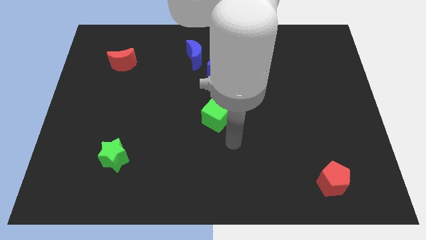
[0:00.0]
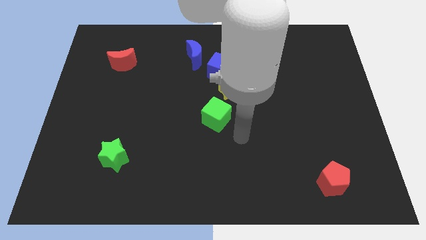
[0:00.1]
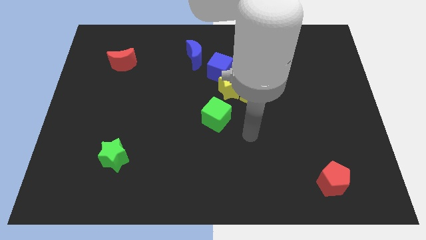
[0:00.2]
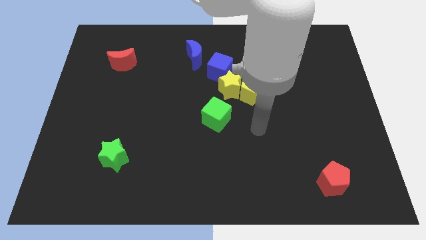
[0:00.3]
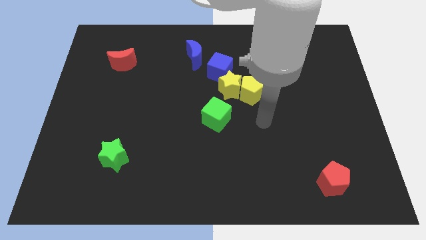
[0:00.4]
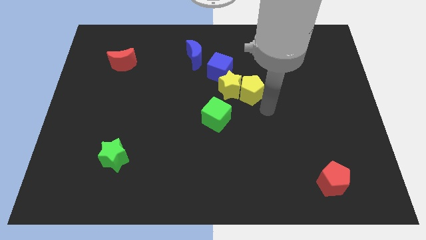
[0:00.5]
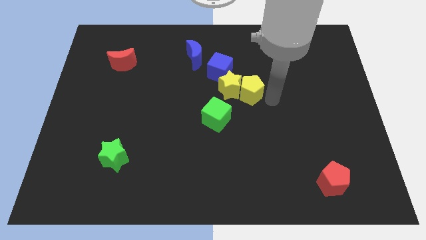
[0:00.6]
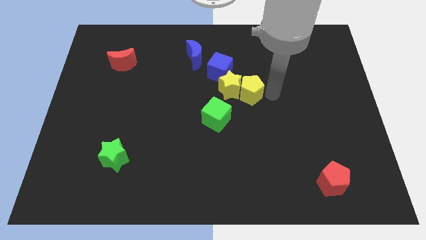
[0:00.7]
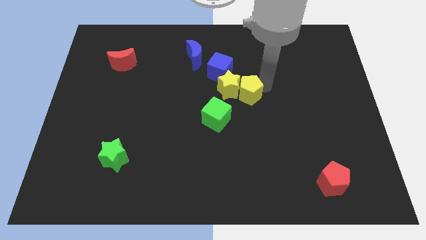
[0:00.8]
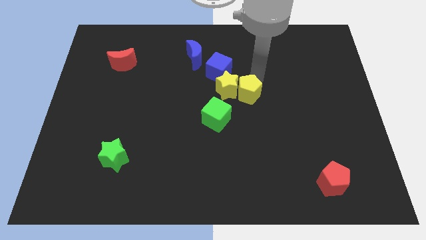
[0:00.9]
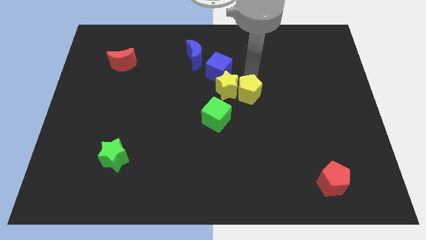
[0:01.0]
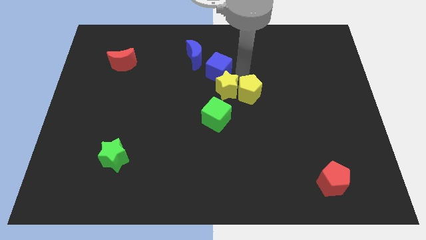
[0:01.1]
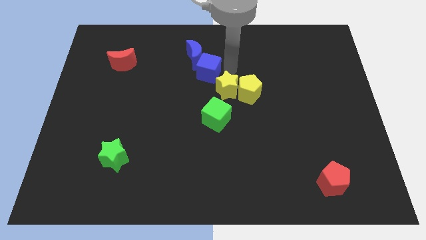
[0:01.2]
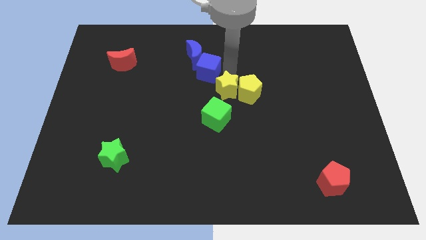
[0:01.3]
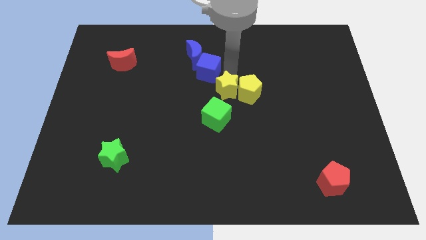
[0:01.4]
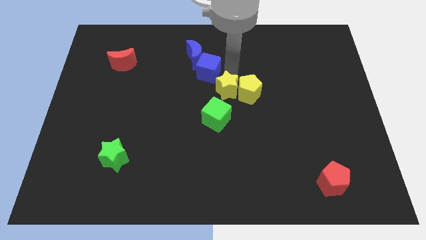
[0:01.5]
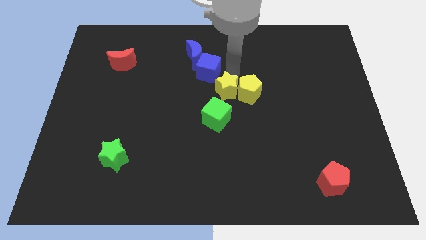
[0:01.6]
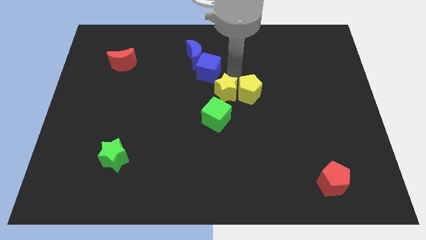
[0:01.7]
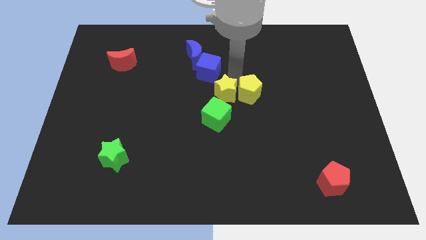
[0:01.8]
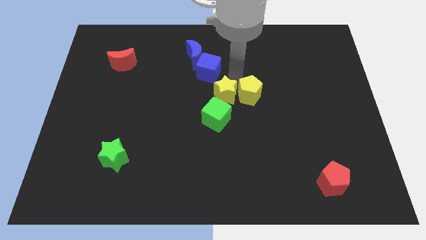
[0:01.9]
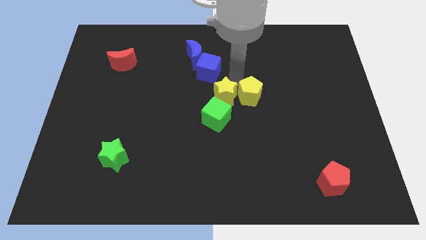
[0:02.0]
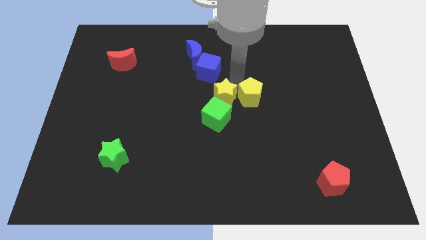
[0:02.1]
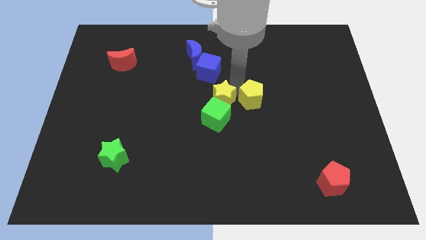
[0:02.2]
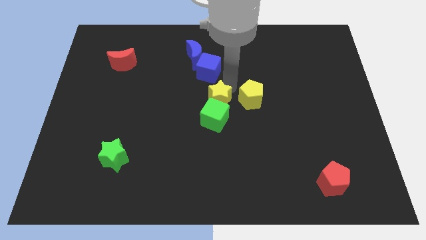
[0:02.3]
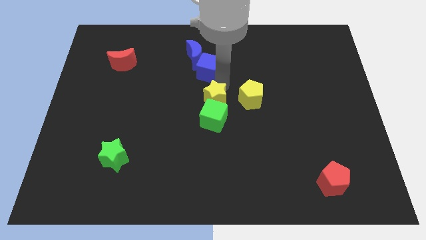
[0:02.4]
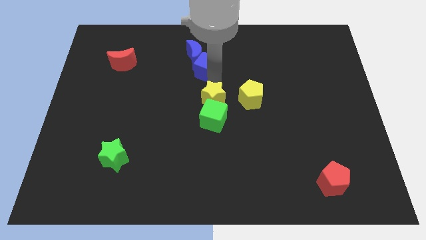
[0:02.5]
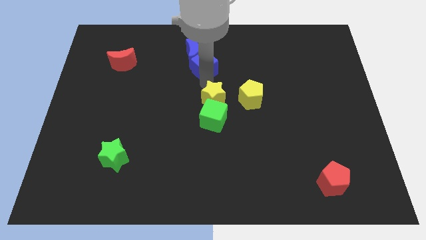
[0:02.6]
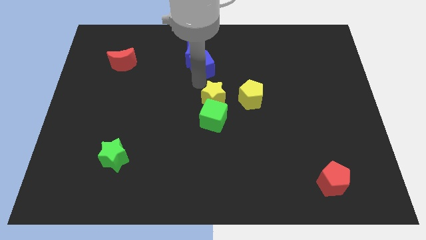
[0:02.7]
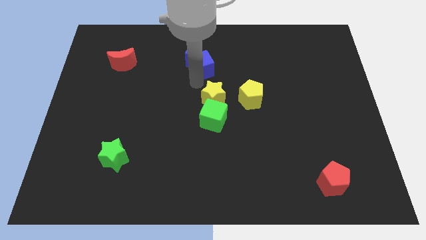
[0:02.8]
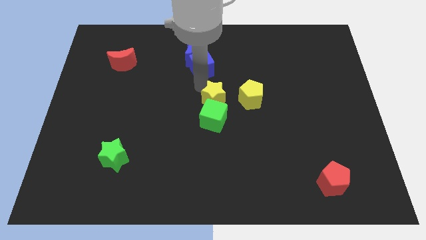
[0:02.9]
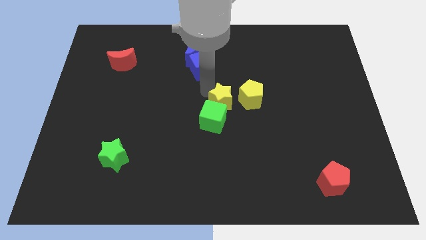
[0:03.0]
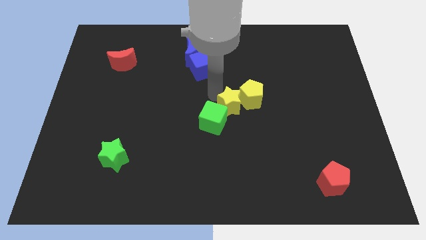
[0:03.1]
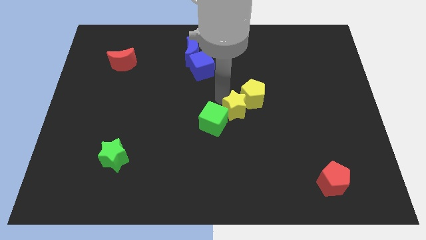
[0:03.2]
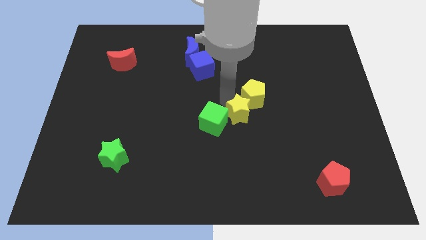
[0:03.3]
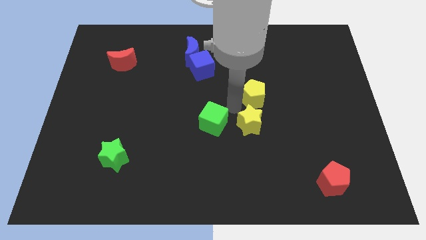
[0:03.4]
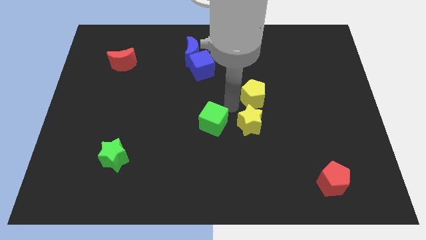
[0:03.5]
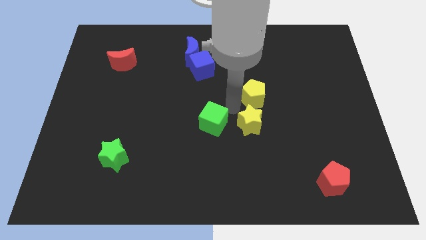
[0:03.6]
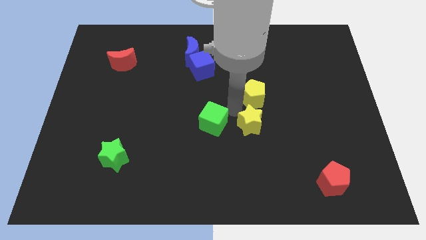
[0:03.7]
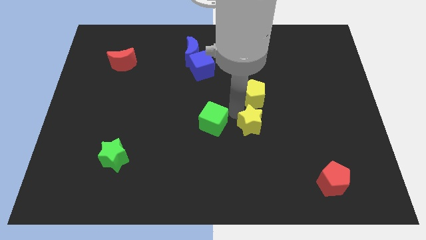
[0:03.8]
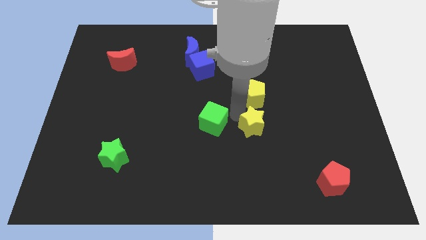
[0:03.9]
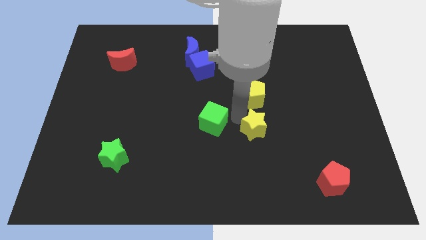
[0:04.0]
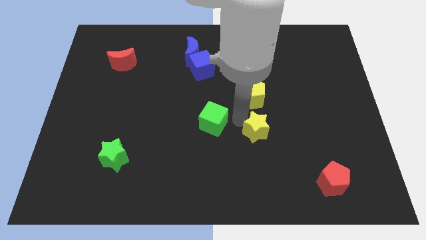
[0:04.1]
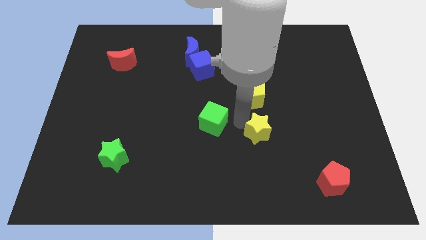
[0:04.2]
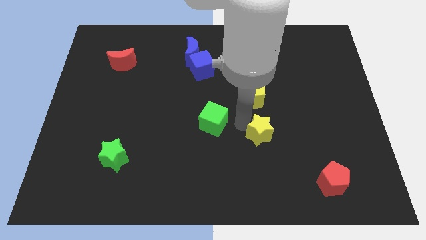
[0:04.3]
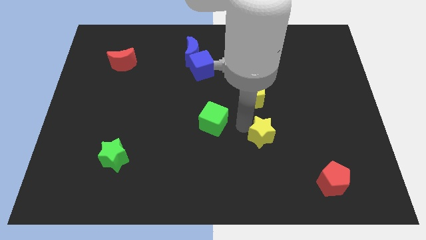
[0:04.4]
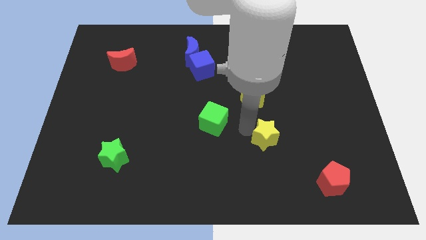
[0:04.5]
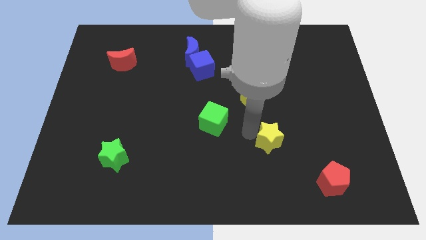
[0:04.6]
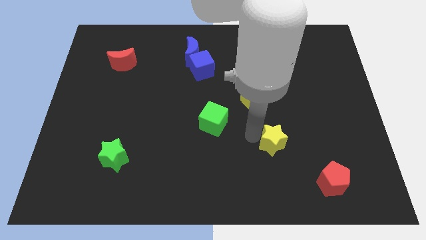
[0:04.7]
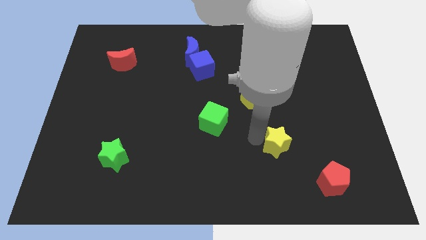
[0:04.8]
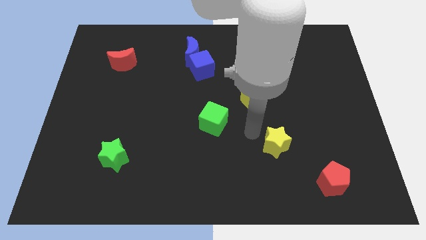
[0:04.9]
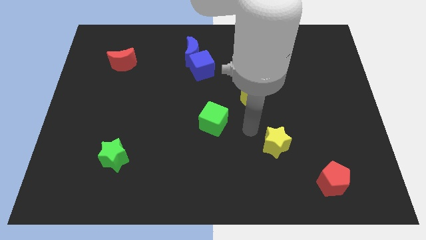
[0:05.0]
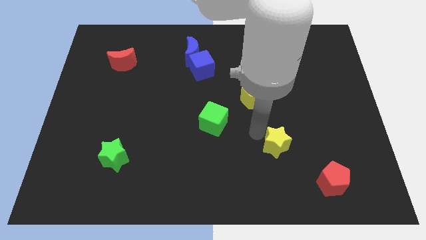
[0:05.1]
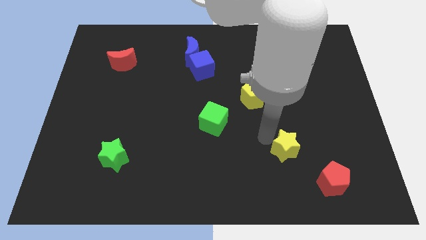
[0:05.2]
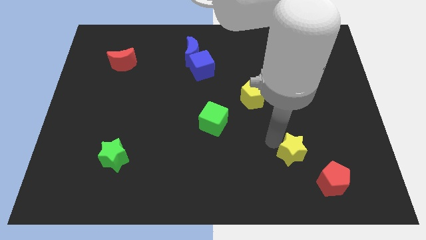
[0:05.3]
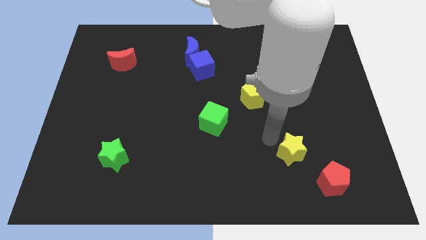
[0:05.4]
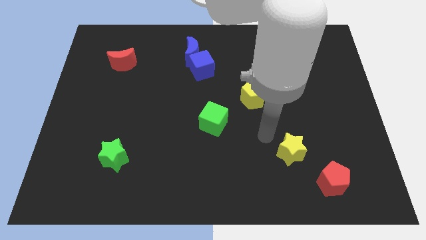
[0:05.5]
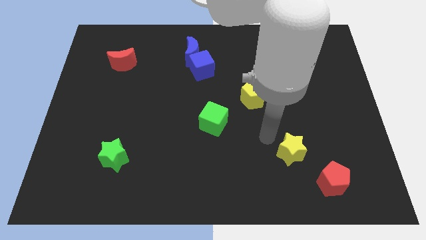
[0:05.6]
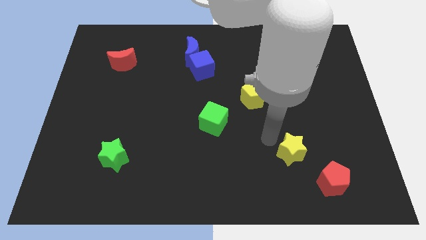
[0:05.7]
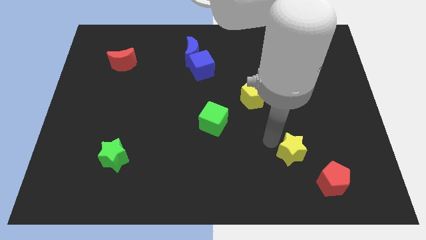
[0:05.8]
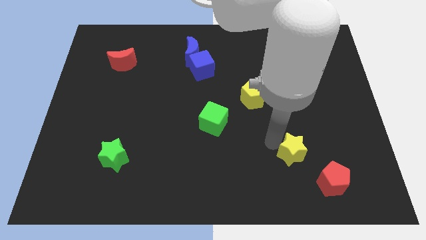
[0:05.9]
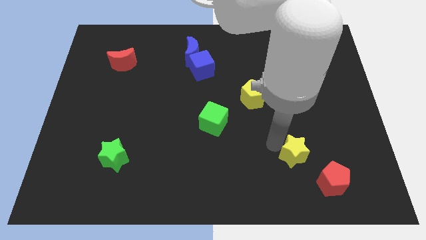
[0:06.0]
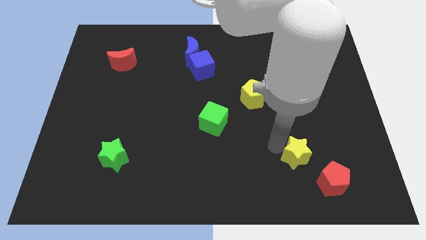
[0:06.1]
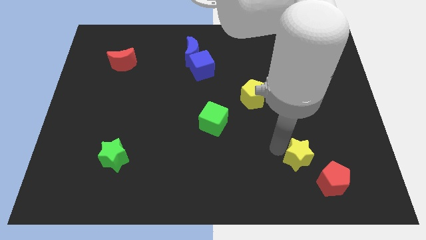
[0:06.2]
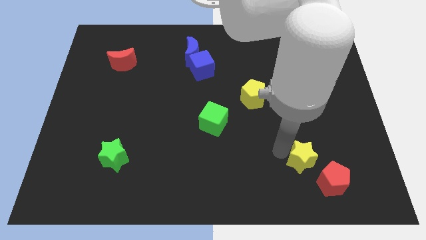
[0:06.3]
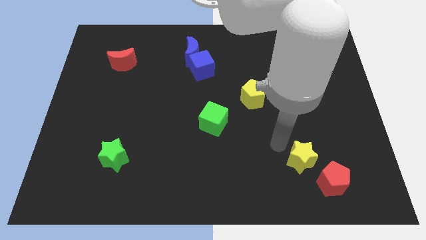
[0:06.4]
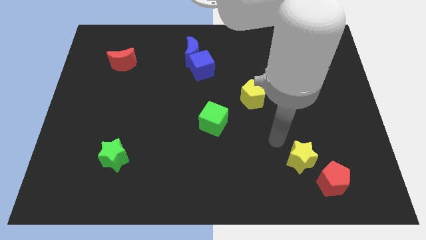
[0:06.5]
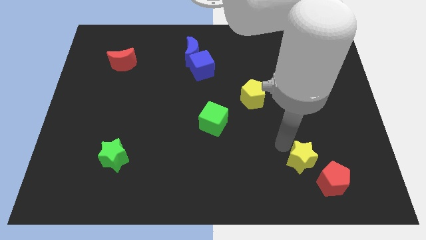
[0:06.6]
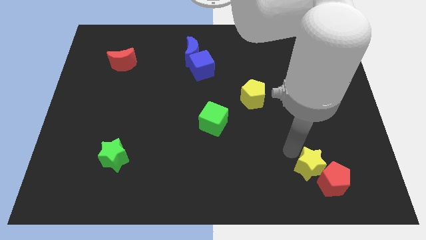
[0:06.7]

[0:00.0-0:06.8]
move the yellow star close to the red pentagon
